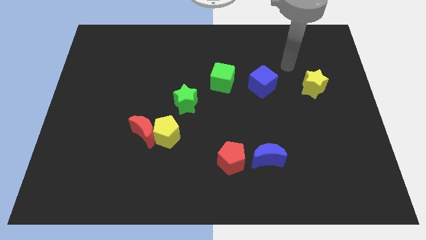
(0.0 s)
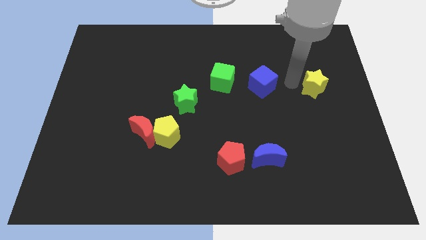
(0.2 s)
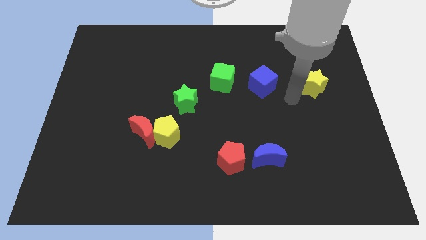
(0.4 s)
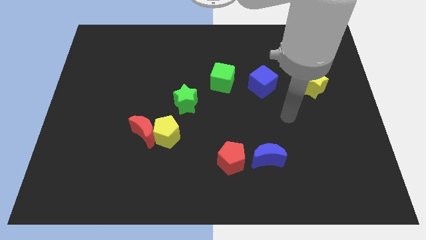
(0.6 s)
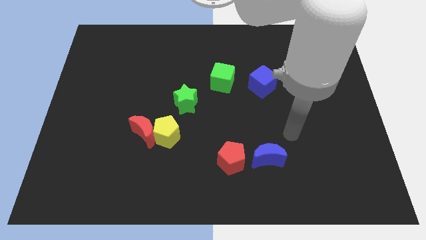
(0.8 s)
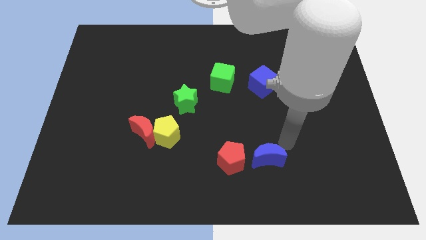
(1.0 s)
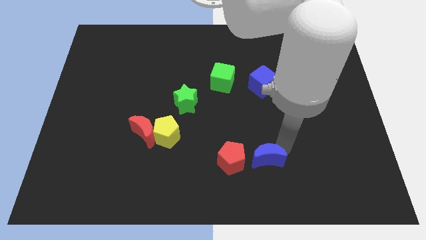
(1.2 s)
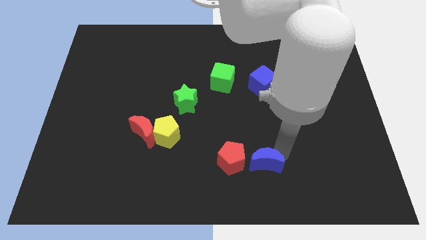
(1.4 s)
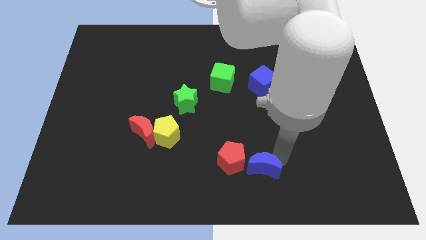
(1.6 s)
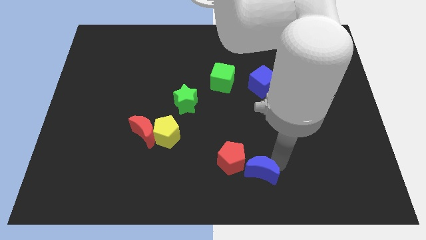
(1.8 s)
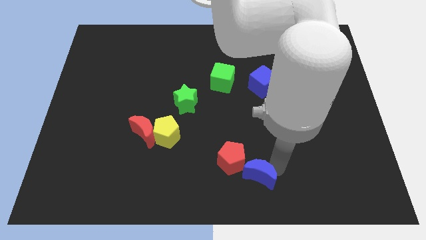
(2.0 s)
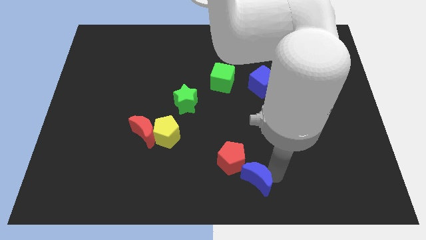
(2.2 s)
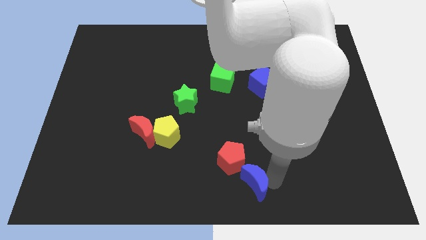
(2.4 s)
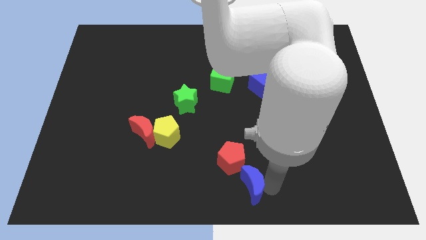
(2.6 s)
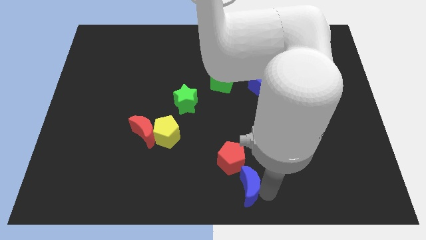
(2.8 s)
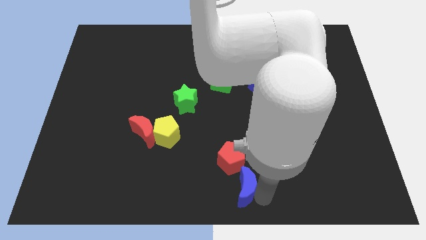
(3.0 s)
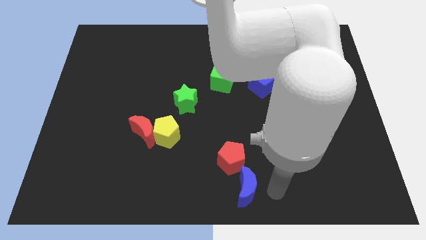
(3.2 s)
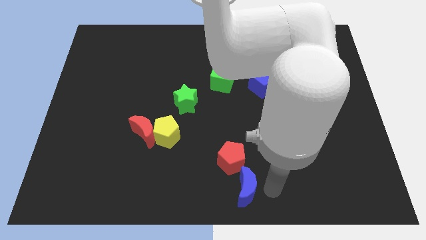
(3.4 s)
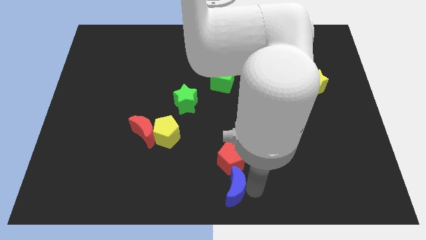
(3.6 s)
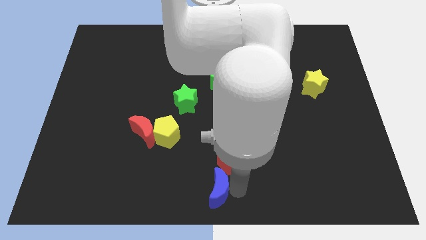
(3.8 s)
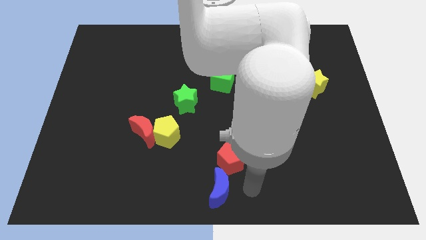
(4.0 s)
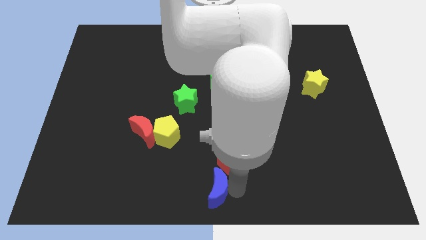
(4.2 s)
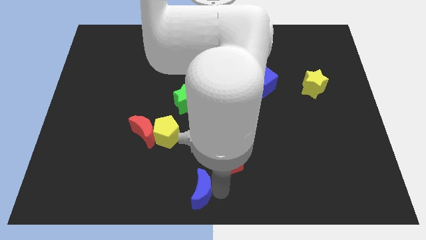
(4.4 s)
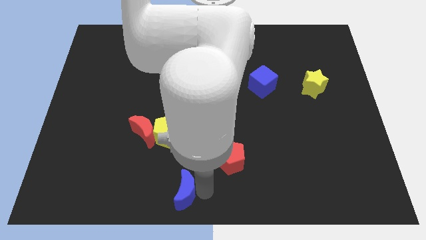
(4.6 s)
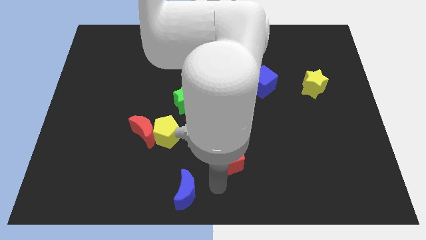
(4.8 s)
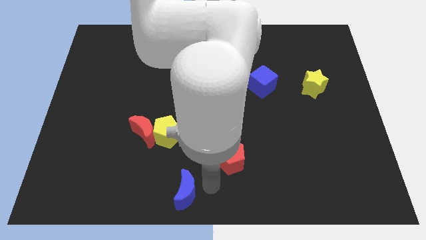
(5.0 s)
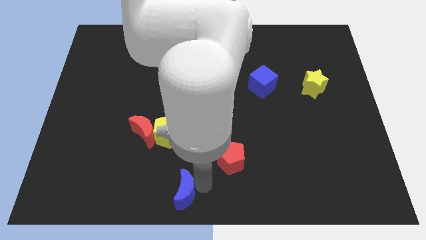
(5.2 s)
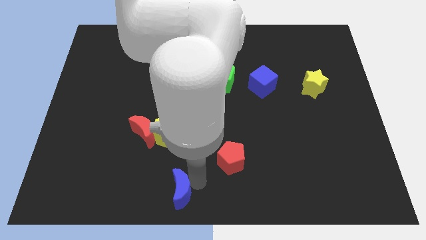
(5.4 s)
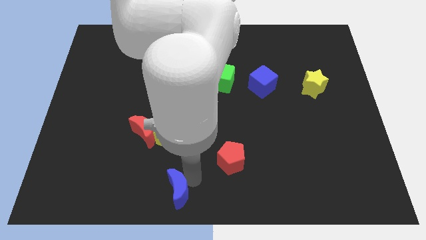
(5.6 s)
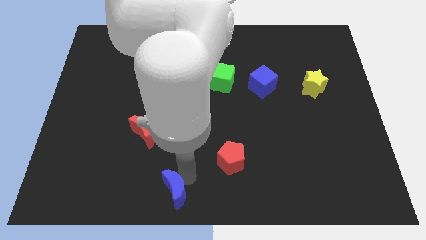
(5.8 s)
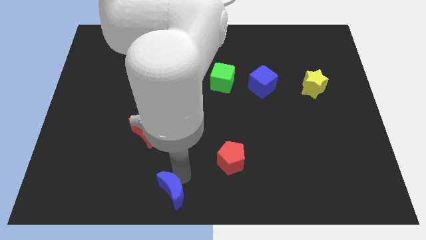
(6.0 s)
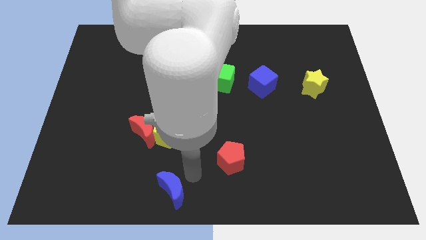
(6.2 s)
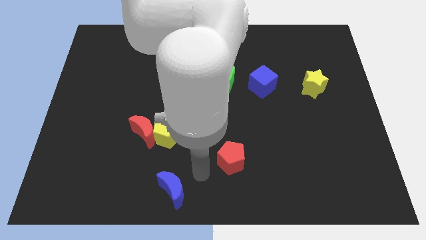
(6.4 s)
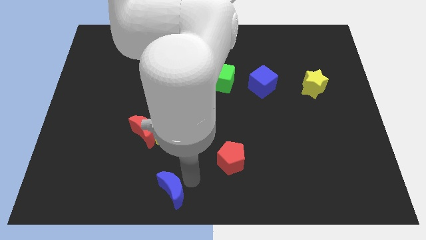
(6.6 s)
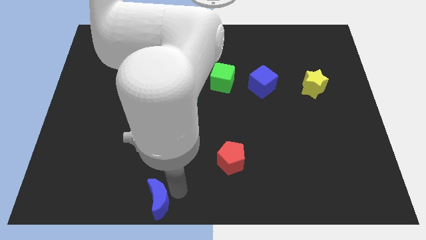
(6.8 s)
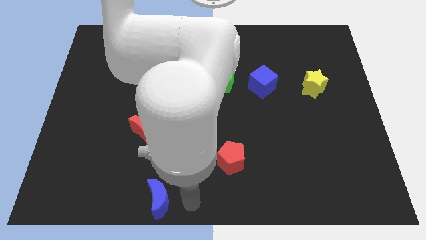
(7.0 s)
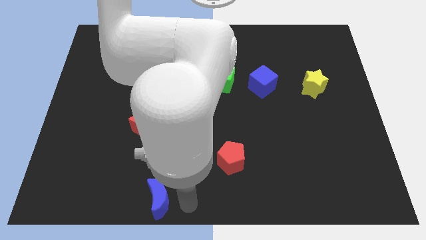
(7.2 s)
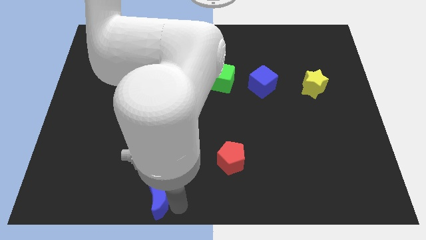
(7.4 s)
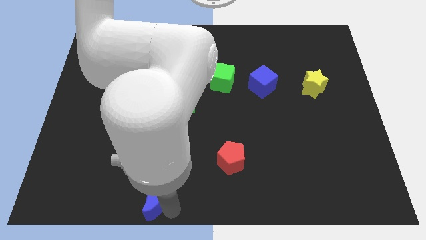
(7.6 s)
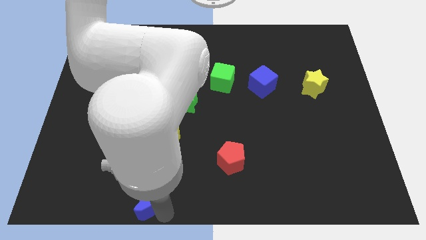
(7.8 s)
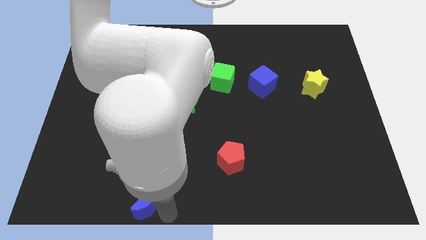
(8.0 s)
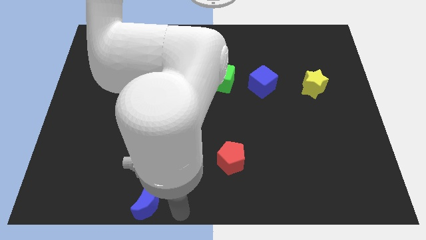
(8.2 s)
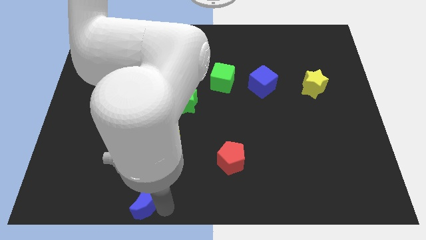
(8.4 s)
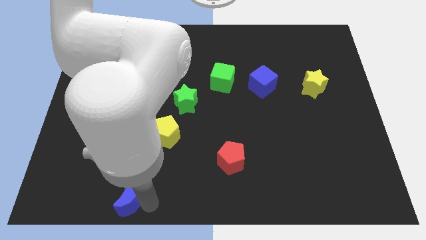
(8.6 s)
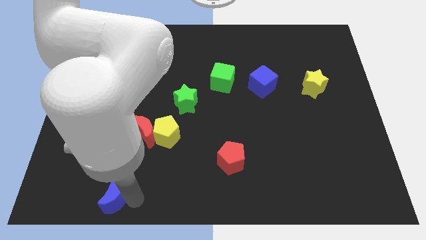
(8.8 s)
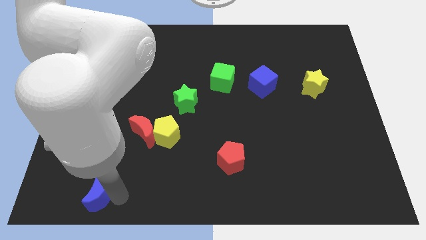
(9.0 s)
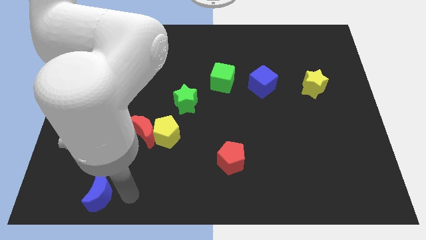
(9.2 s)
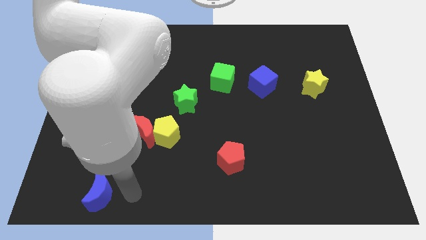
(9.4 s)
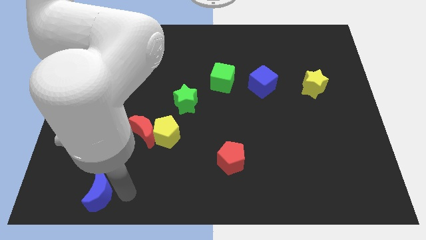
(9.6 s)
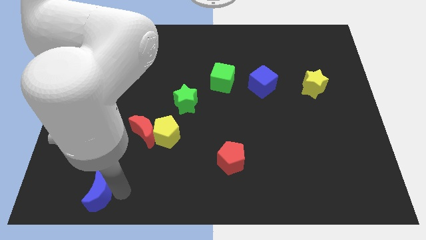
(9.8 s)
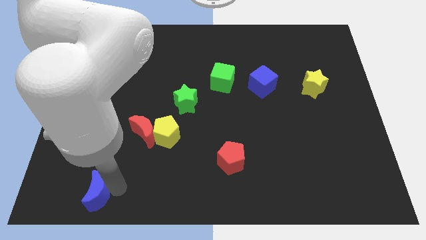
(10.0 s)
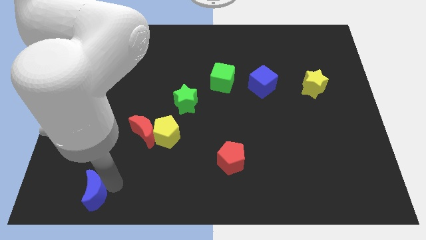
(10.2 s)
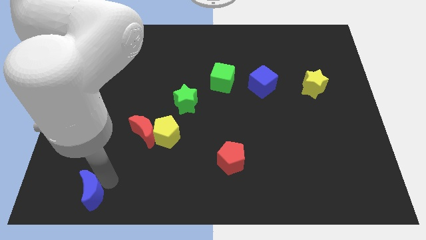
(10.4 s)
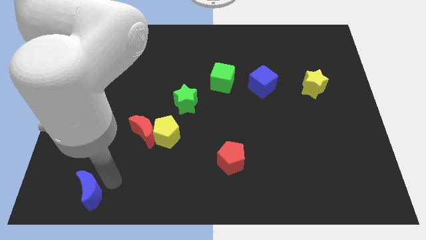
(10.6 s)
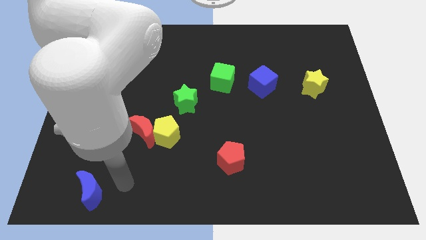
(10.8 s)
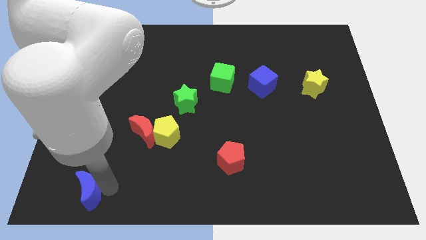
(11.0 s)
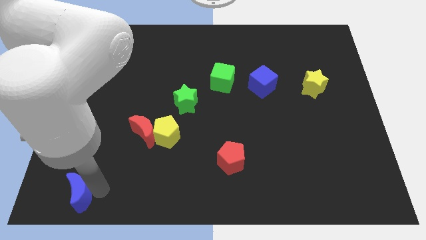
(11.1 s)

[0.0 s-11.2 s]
slide the blue moon to the bottom left of the board

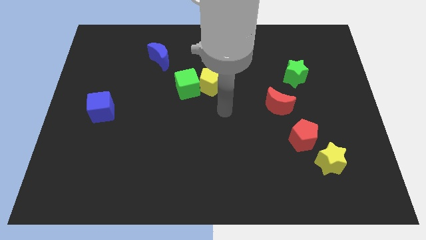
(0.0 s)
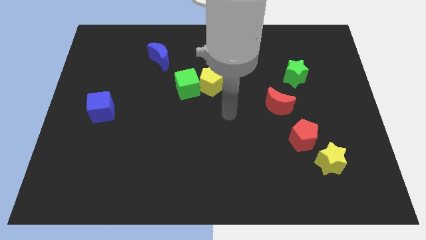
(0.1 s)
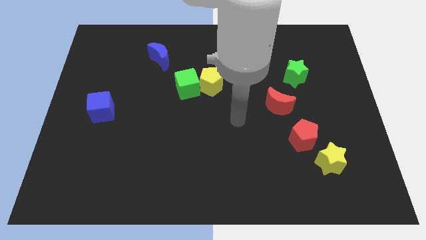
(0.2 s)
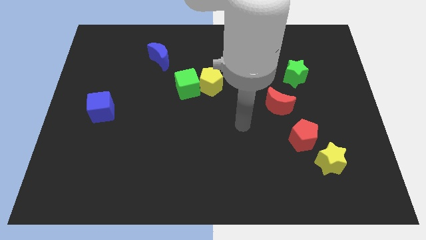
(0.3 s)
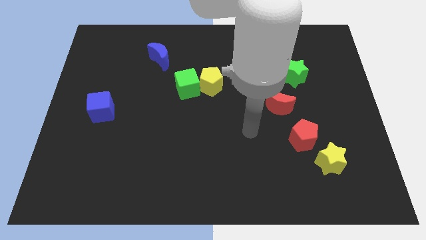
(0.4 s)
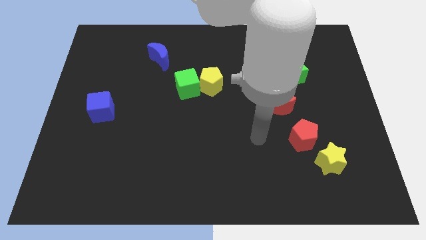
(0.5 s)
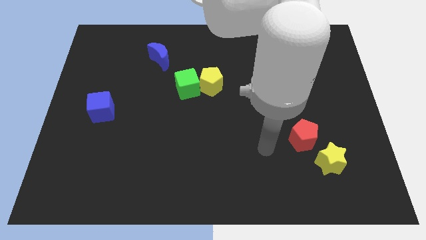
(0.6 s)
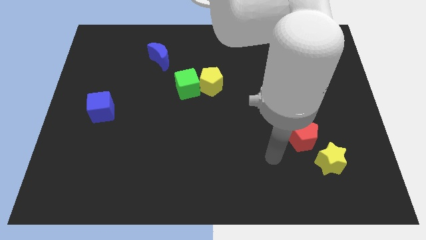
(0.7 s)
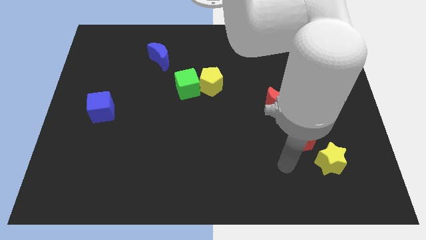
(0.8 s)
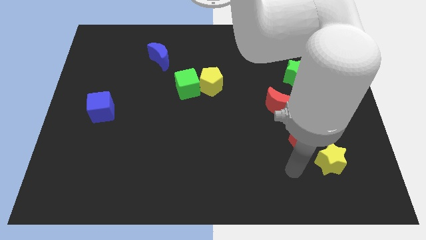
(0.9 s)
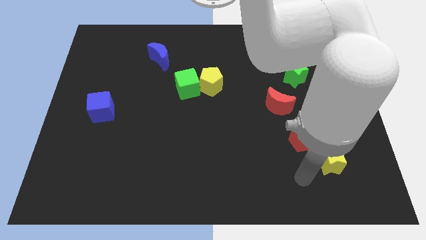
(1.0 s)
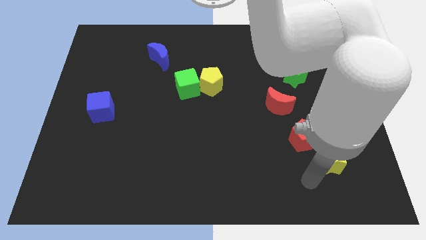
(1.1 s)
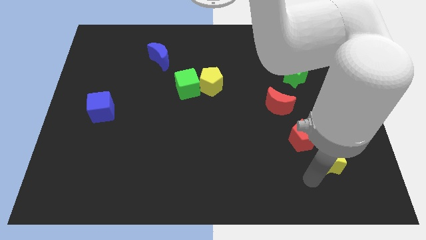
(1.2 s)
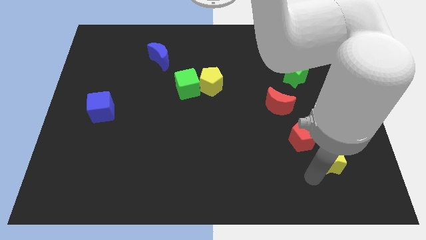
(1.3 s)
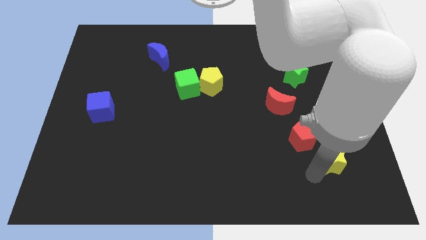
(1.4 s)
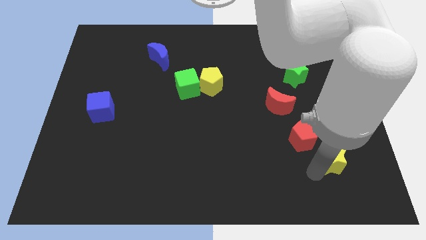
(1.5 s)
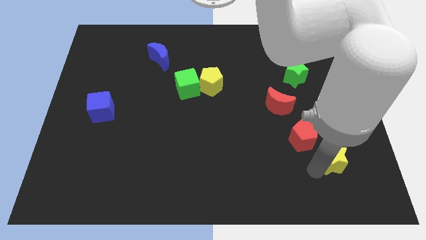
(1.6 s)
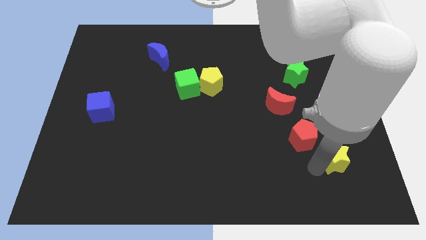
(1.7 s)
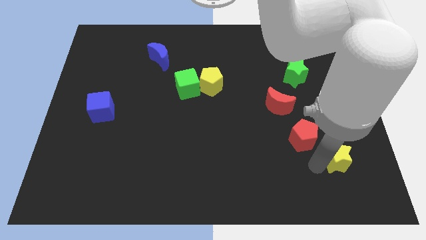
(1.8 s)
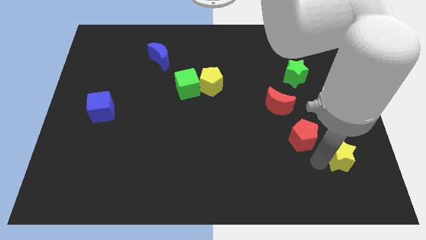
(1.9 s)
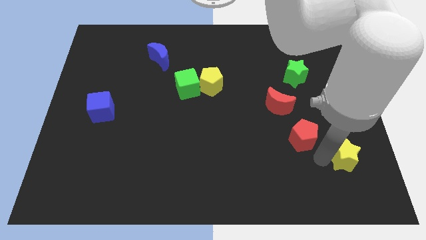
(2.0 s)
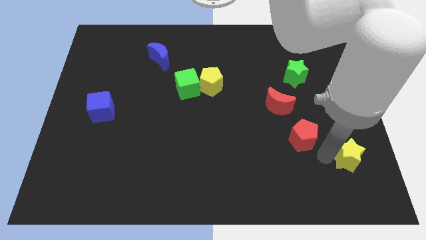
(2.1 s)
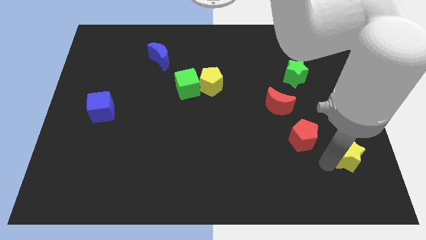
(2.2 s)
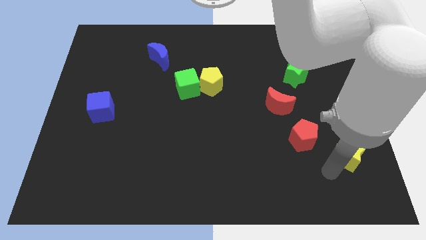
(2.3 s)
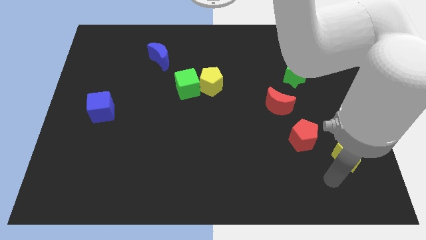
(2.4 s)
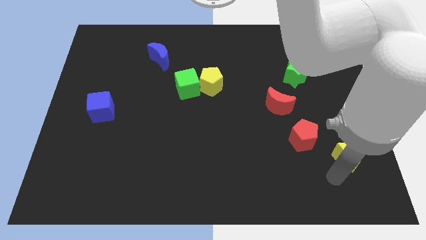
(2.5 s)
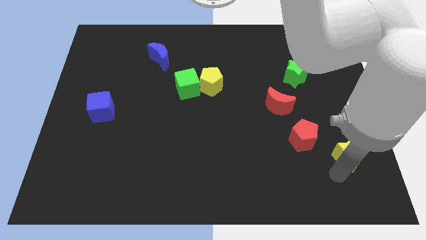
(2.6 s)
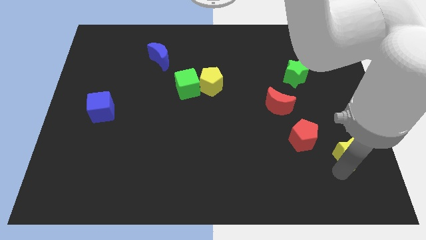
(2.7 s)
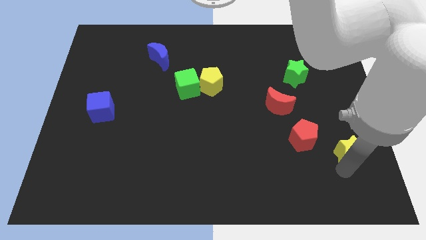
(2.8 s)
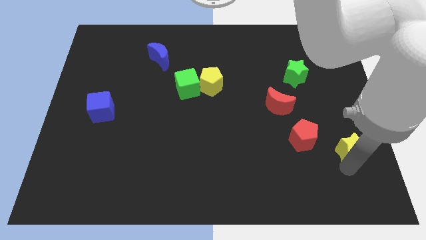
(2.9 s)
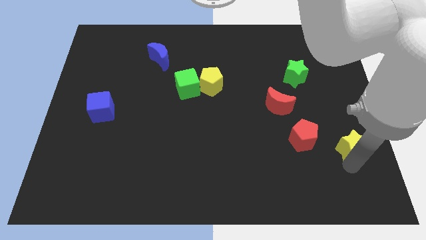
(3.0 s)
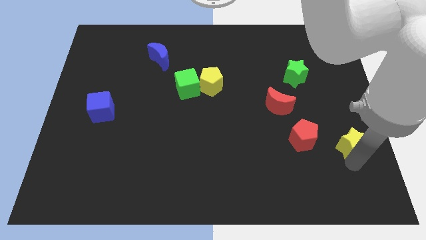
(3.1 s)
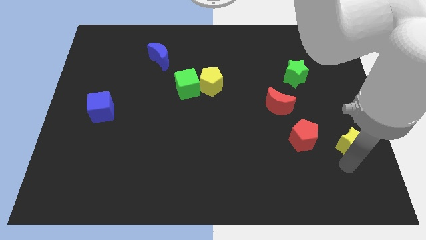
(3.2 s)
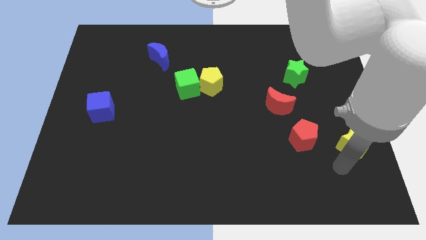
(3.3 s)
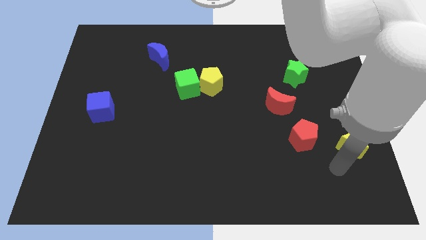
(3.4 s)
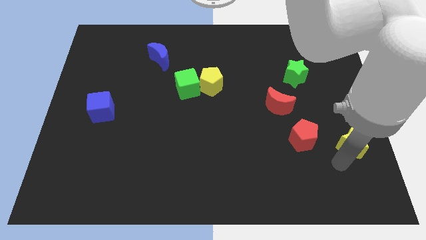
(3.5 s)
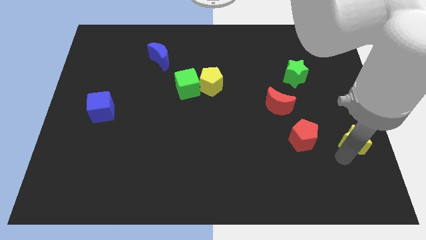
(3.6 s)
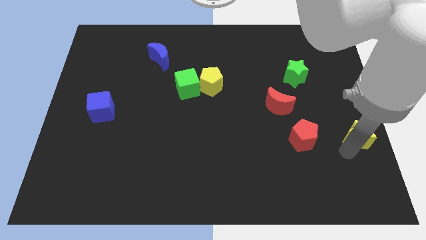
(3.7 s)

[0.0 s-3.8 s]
put the yellow star to the right side
